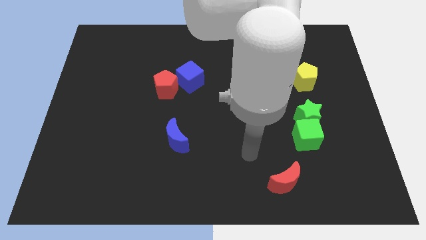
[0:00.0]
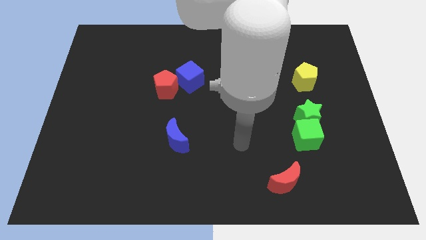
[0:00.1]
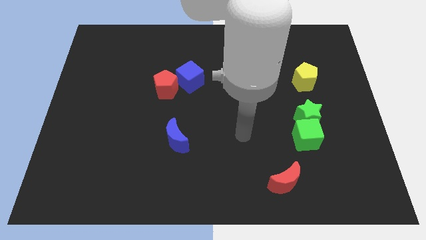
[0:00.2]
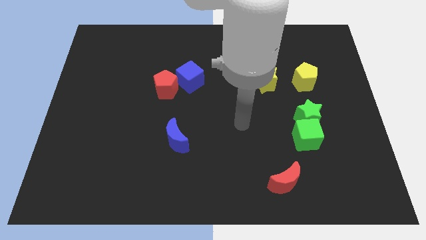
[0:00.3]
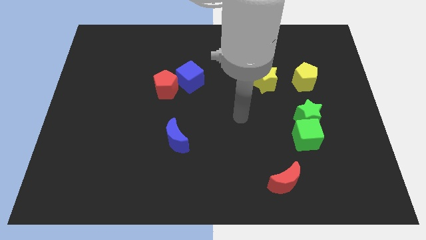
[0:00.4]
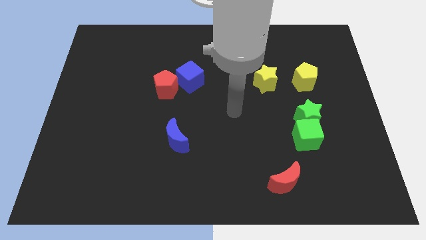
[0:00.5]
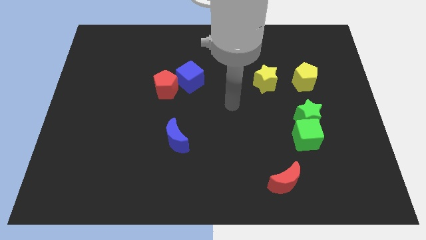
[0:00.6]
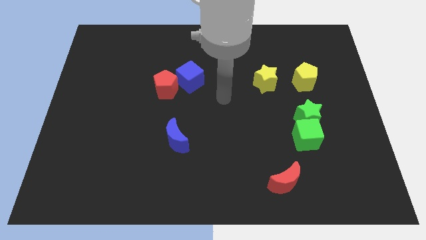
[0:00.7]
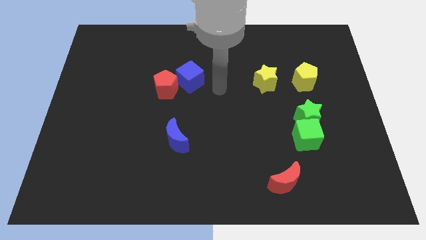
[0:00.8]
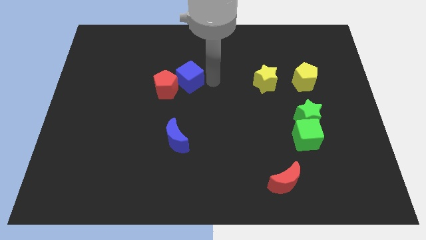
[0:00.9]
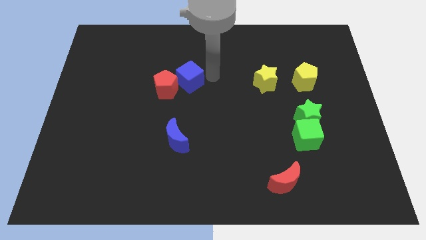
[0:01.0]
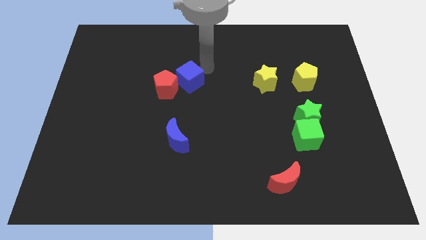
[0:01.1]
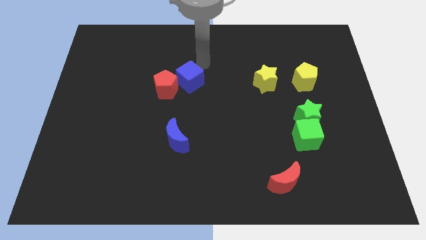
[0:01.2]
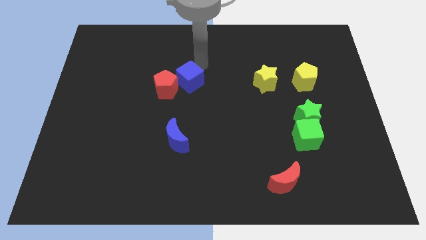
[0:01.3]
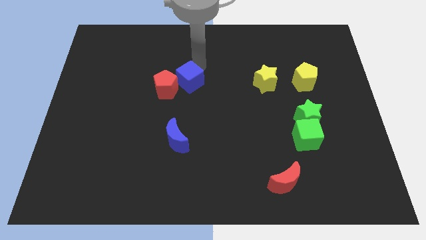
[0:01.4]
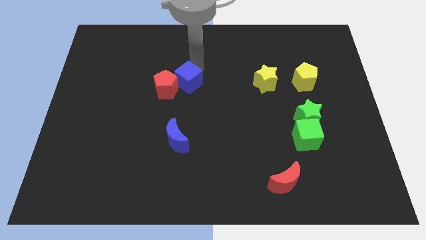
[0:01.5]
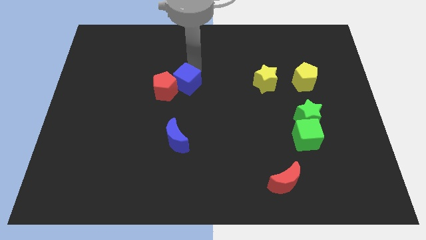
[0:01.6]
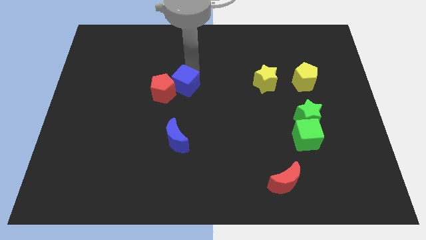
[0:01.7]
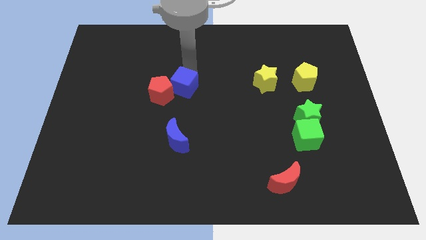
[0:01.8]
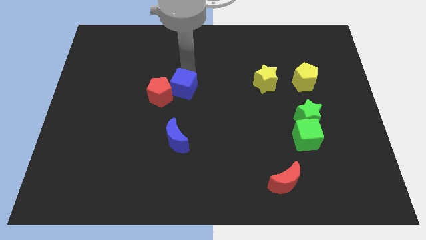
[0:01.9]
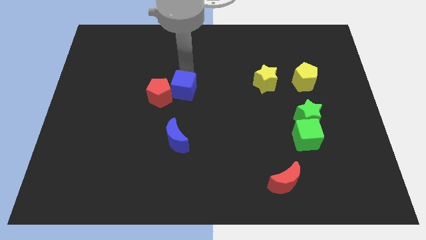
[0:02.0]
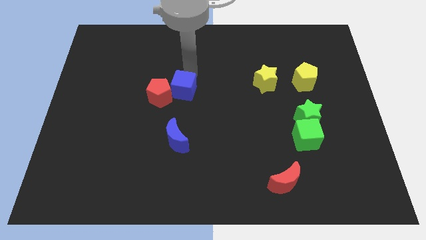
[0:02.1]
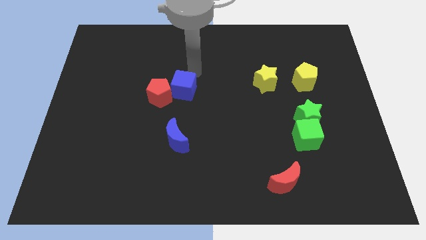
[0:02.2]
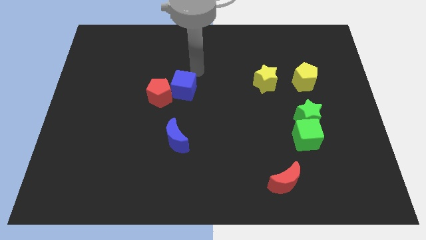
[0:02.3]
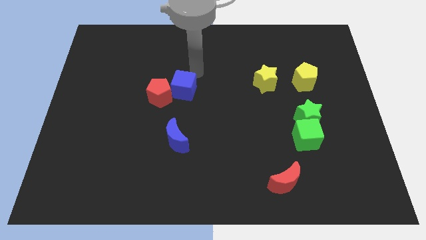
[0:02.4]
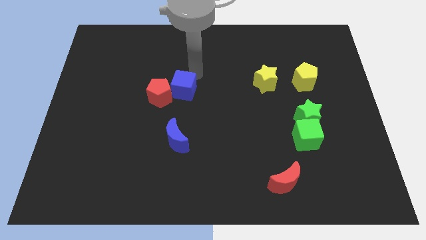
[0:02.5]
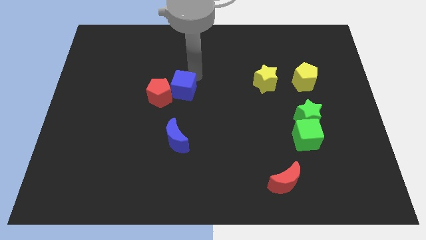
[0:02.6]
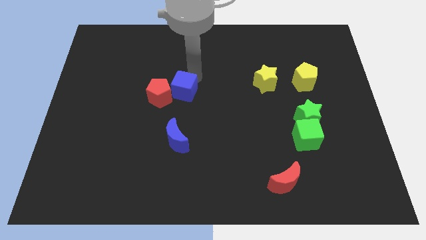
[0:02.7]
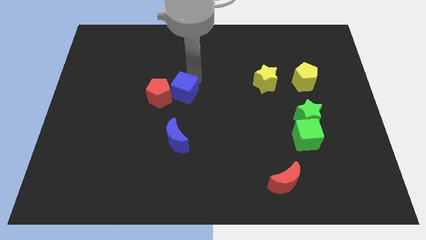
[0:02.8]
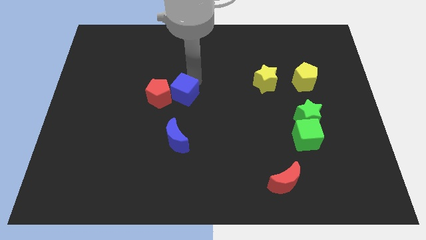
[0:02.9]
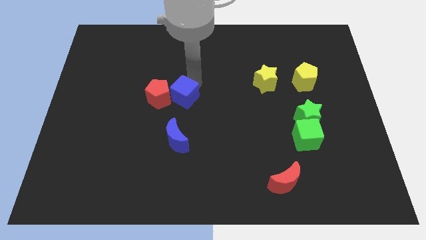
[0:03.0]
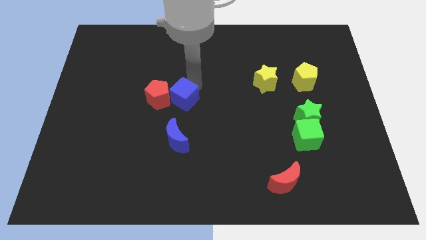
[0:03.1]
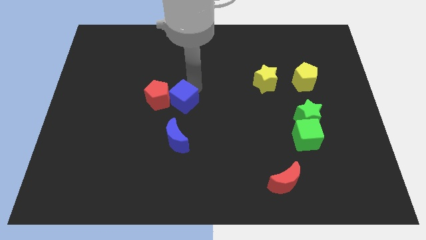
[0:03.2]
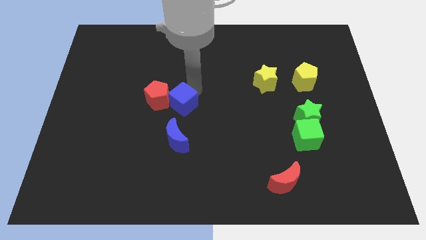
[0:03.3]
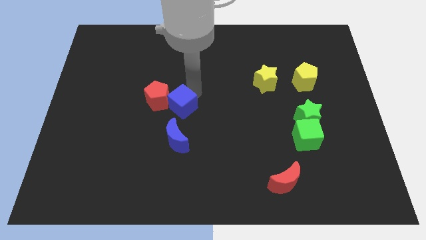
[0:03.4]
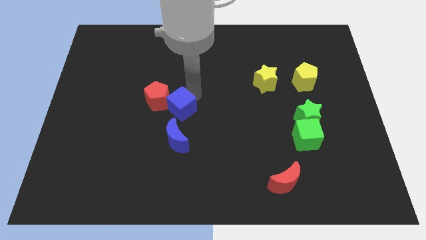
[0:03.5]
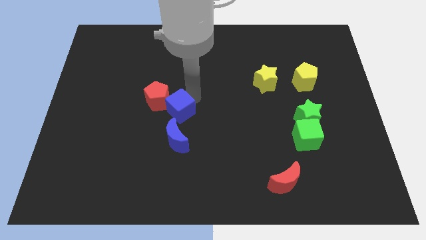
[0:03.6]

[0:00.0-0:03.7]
move the blue cube somewhat downwards and then to the left

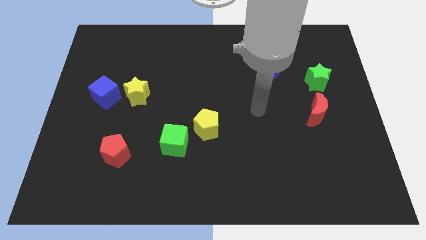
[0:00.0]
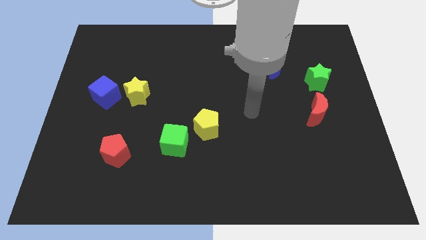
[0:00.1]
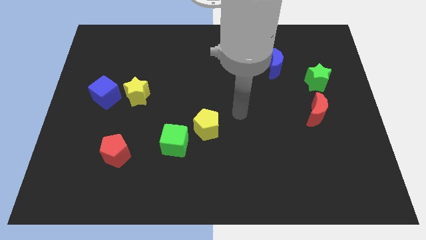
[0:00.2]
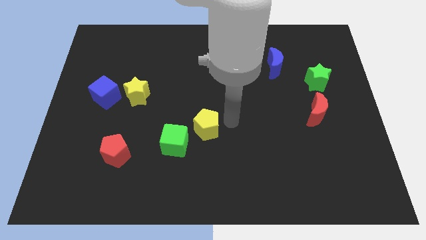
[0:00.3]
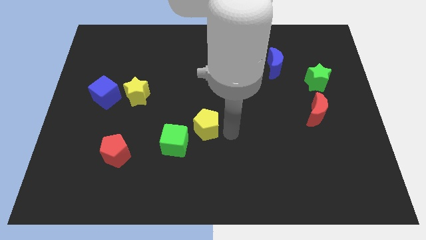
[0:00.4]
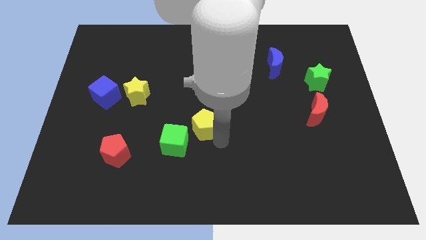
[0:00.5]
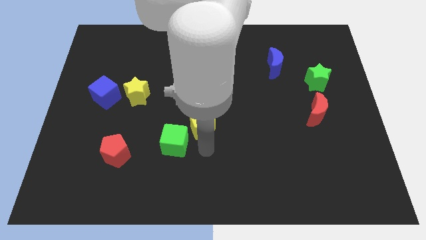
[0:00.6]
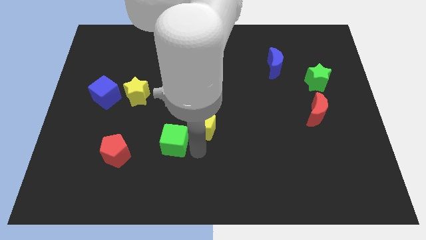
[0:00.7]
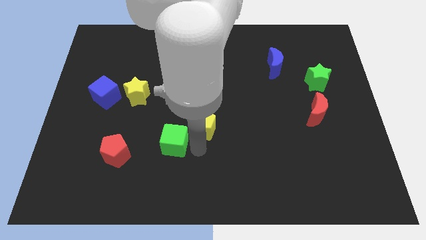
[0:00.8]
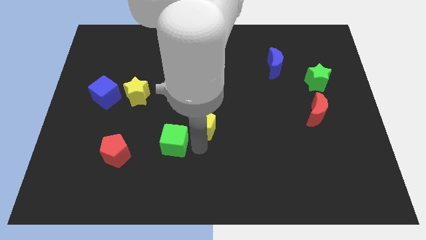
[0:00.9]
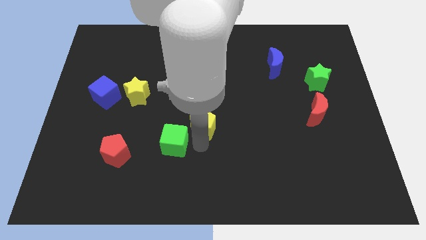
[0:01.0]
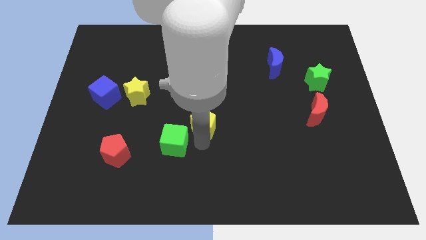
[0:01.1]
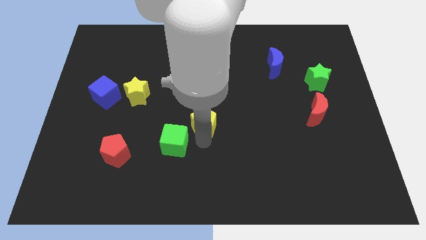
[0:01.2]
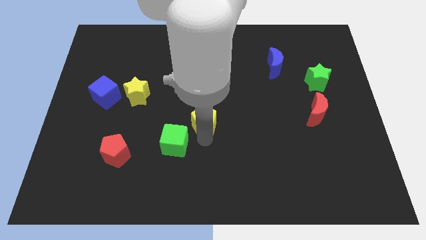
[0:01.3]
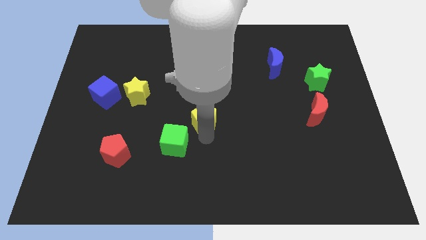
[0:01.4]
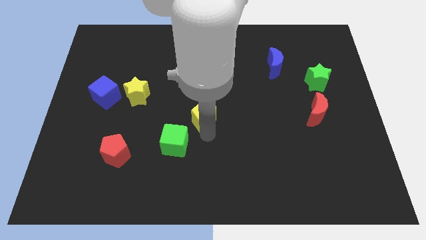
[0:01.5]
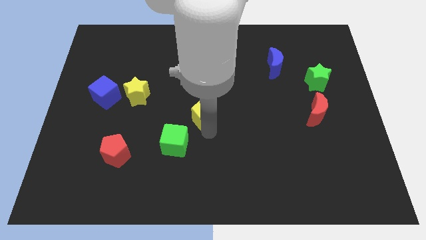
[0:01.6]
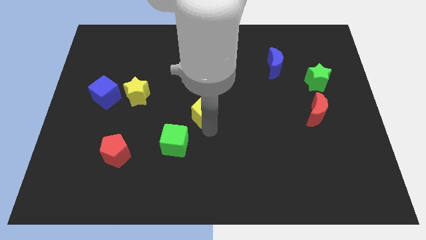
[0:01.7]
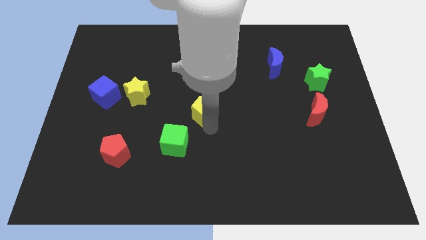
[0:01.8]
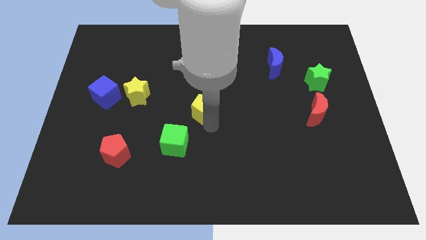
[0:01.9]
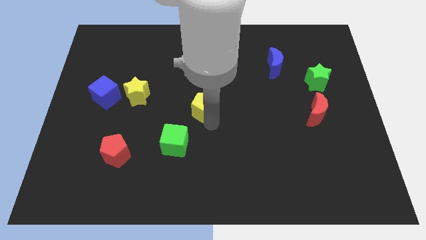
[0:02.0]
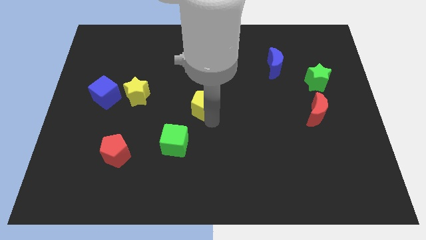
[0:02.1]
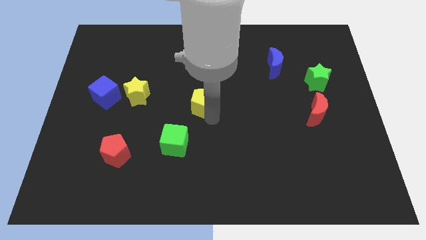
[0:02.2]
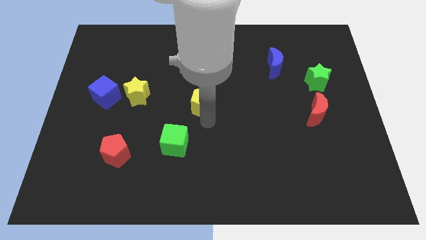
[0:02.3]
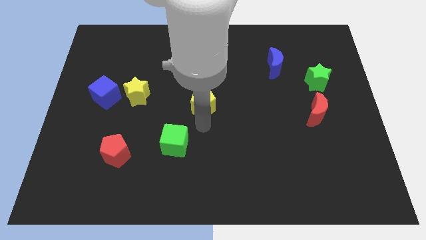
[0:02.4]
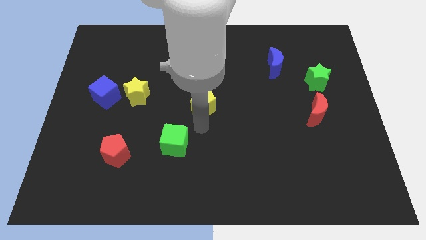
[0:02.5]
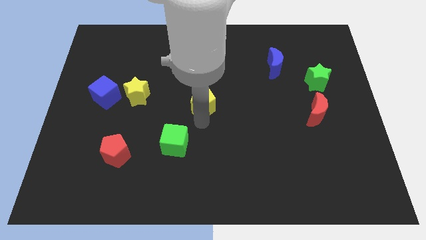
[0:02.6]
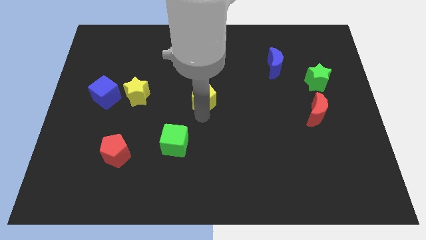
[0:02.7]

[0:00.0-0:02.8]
push the yellow pentagon upwards a little bit

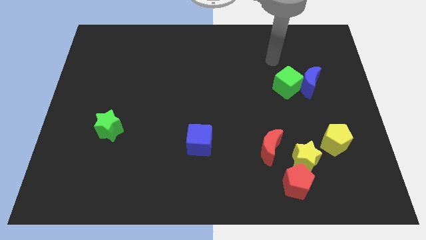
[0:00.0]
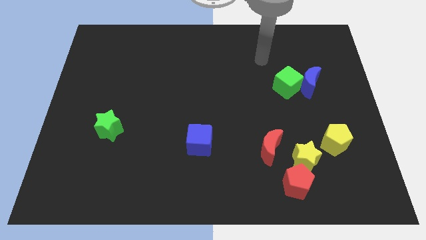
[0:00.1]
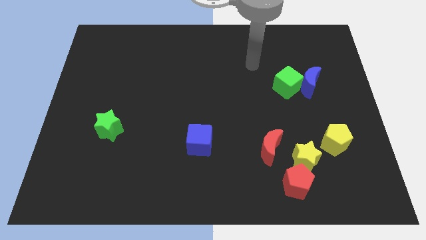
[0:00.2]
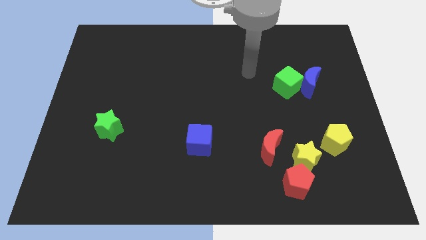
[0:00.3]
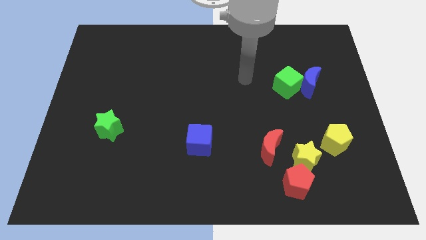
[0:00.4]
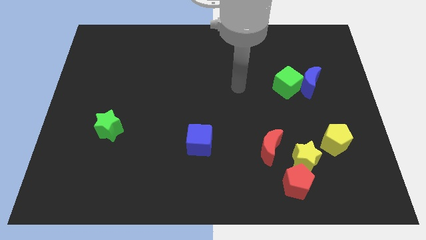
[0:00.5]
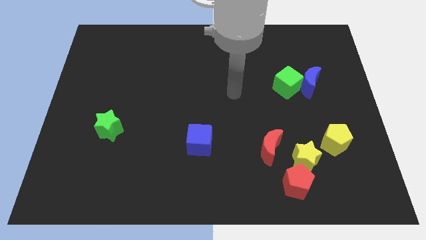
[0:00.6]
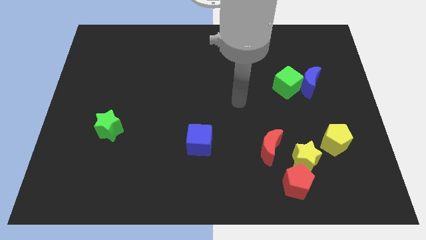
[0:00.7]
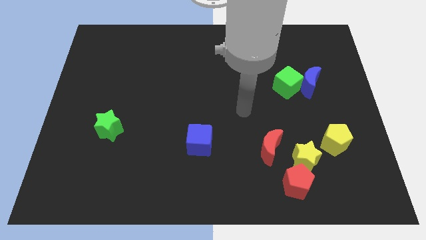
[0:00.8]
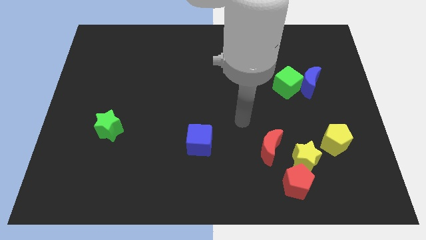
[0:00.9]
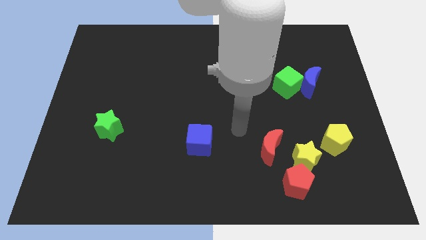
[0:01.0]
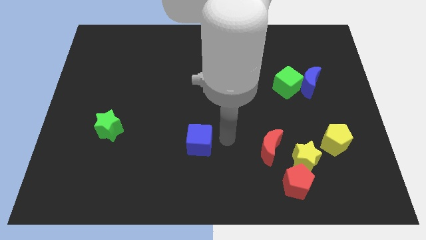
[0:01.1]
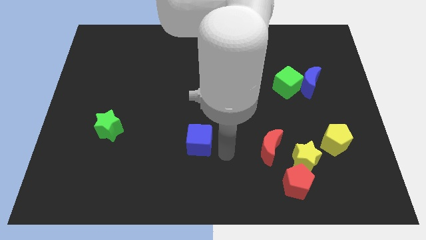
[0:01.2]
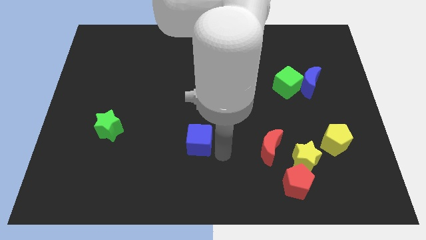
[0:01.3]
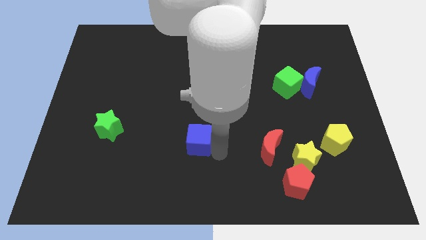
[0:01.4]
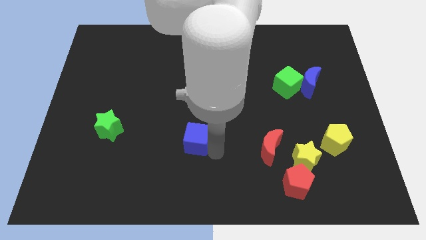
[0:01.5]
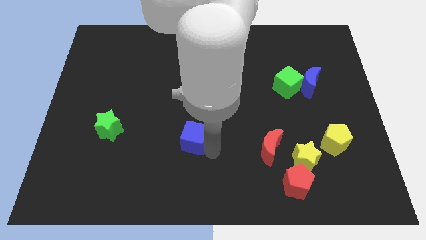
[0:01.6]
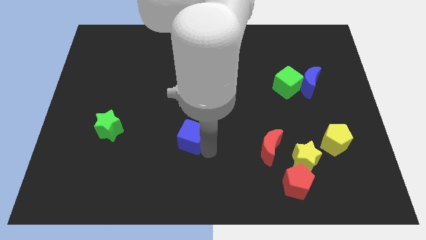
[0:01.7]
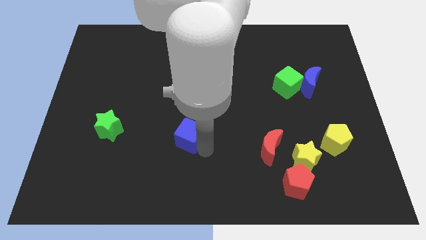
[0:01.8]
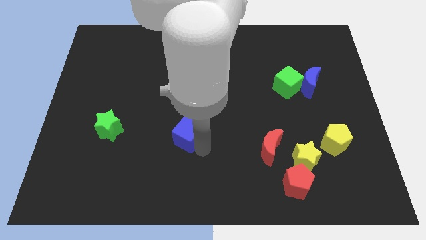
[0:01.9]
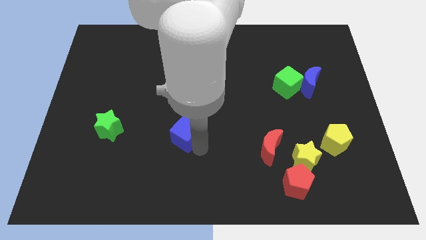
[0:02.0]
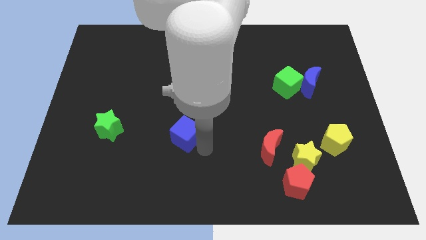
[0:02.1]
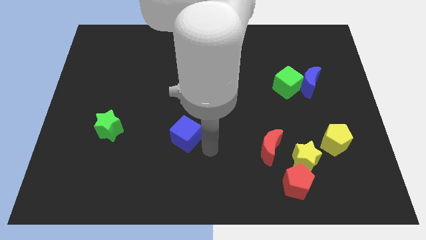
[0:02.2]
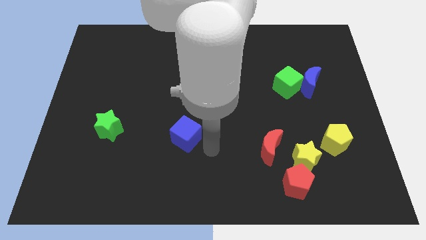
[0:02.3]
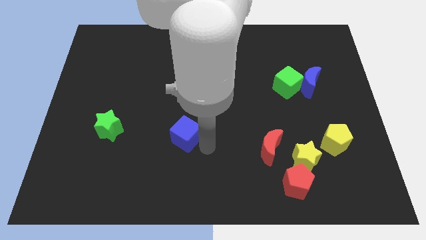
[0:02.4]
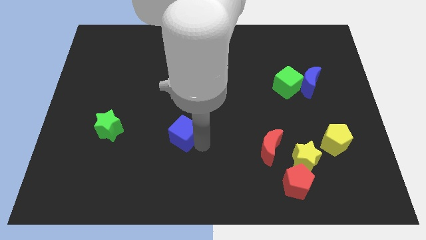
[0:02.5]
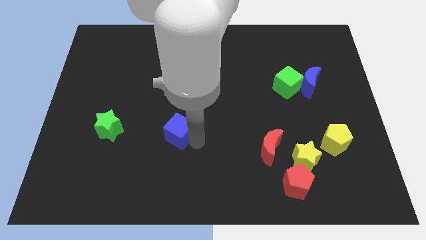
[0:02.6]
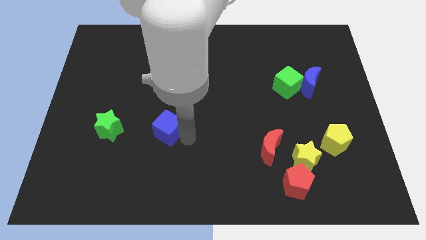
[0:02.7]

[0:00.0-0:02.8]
slide the blue cube a bit up and to the left diagonally
